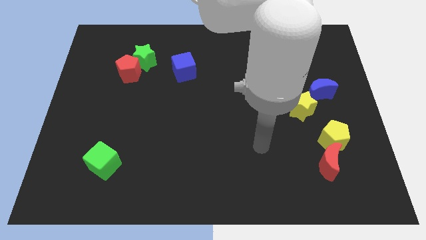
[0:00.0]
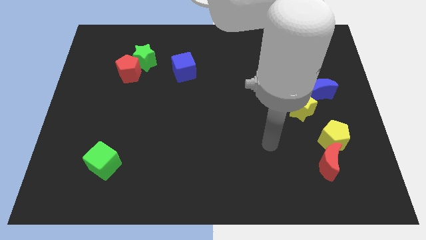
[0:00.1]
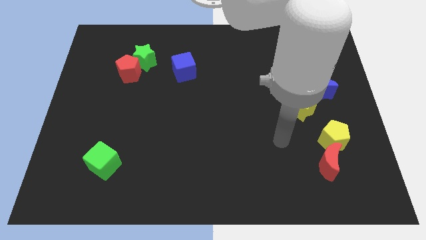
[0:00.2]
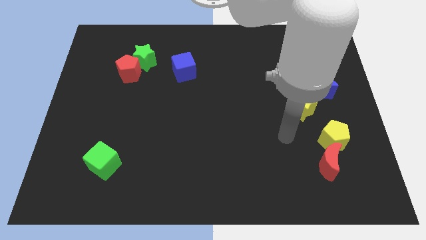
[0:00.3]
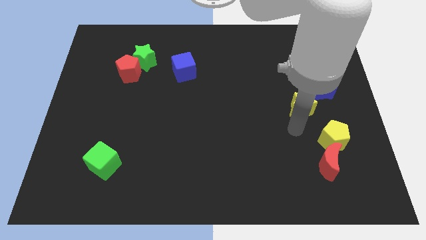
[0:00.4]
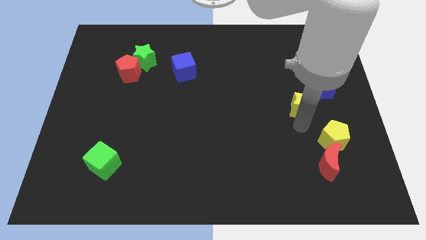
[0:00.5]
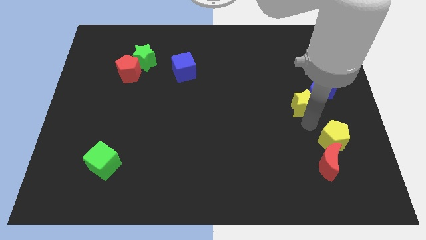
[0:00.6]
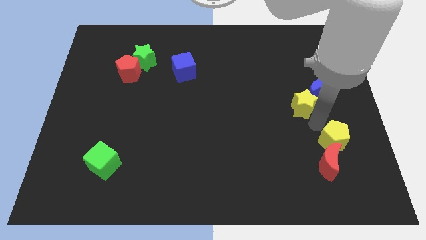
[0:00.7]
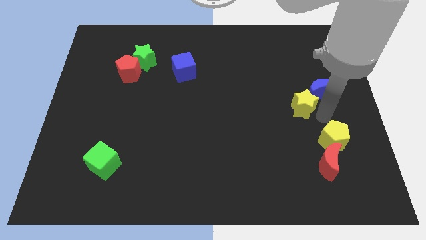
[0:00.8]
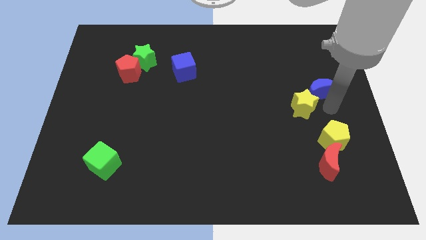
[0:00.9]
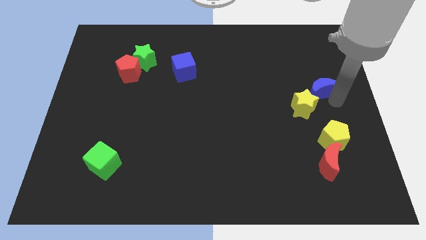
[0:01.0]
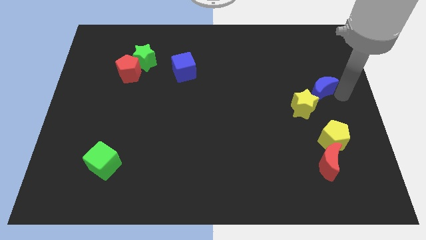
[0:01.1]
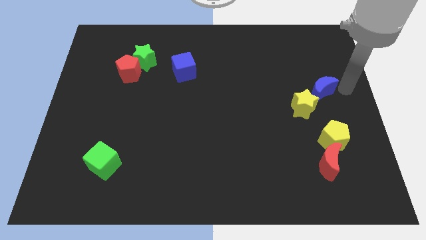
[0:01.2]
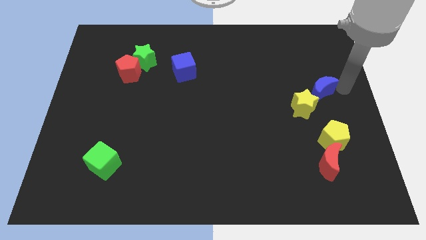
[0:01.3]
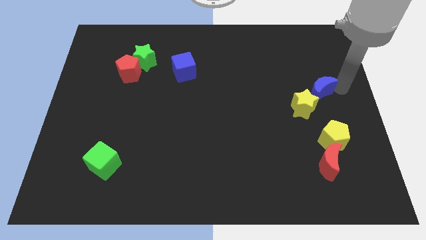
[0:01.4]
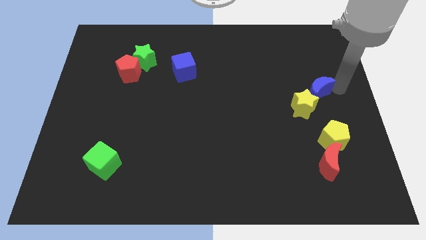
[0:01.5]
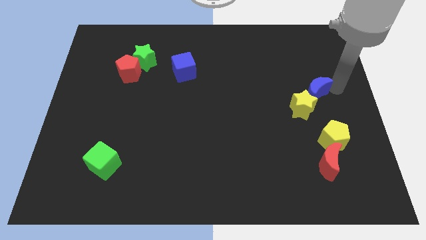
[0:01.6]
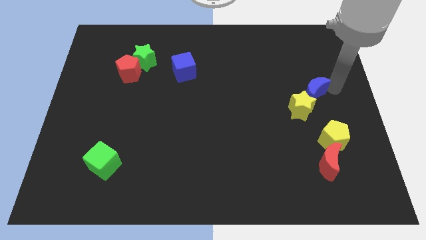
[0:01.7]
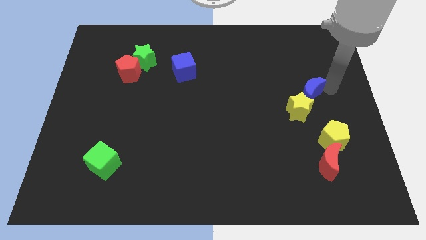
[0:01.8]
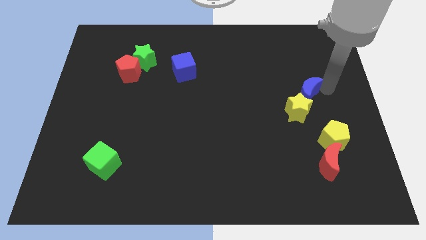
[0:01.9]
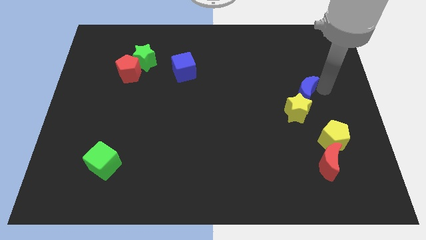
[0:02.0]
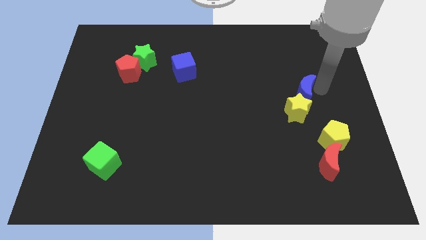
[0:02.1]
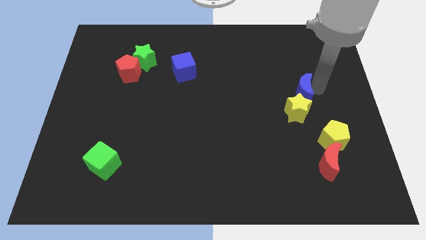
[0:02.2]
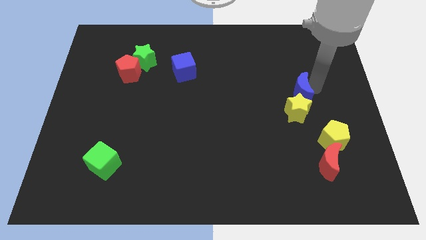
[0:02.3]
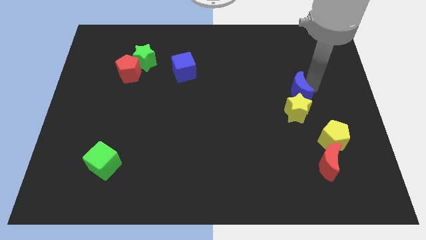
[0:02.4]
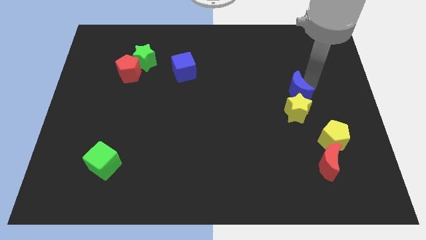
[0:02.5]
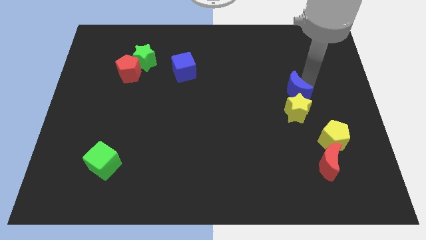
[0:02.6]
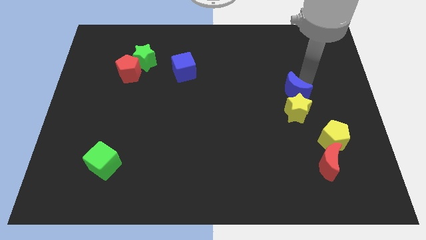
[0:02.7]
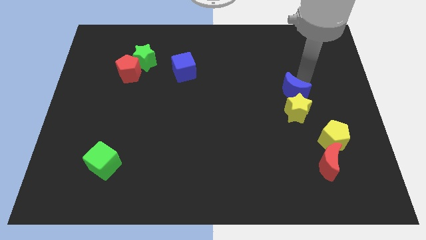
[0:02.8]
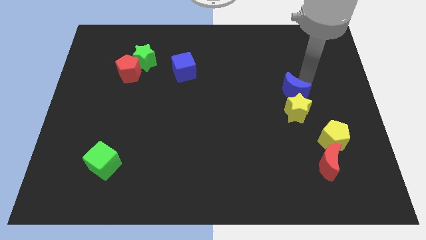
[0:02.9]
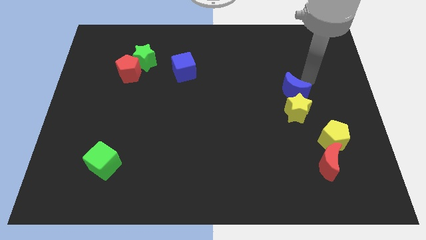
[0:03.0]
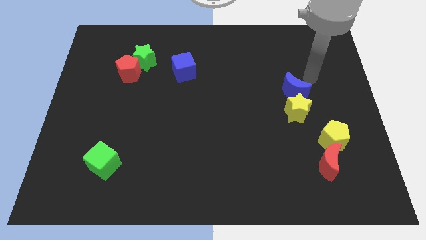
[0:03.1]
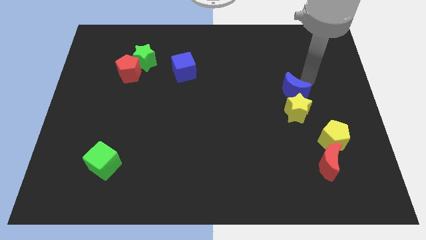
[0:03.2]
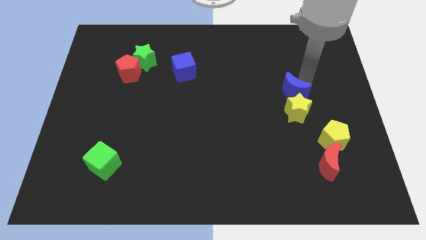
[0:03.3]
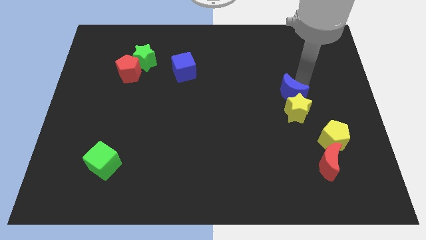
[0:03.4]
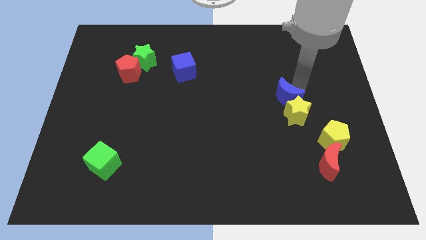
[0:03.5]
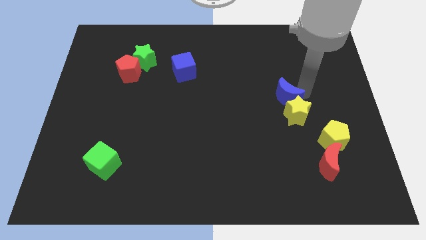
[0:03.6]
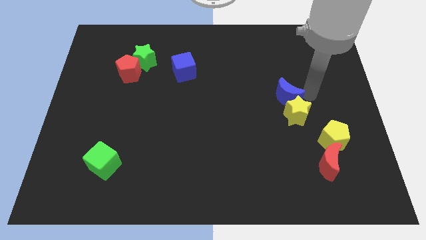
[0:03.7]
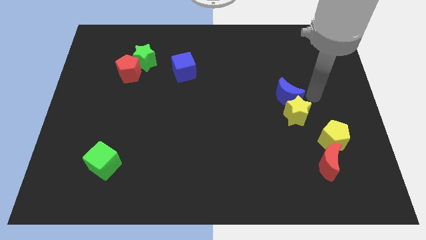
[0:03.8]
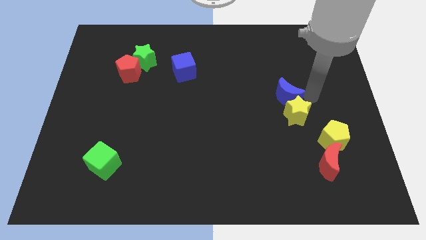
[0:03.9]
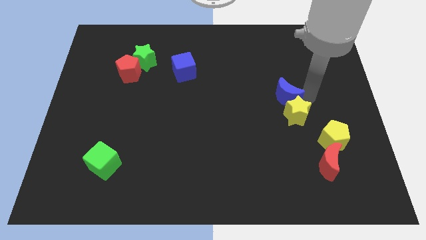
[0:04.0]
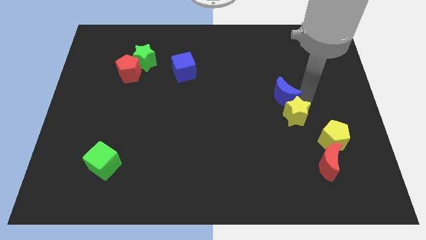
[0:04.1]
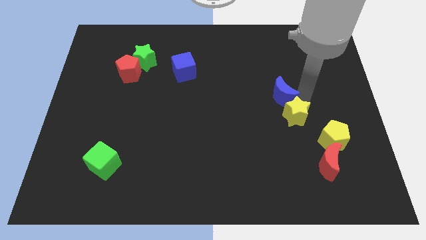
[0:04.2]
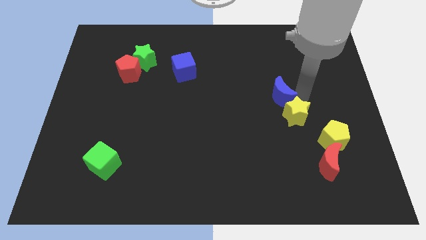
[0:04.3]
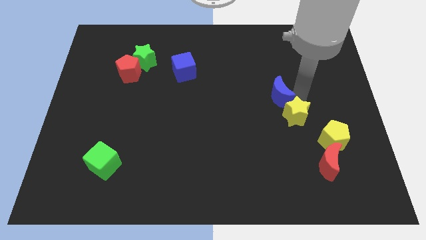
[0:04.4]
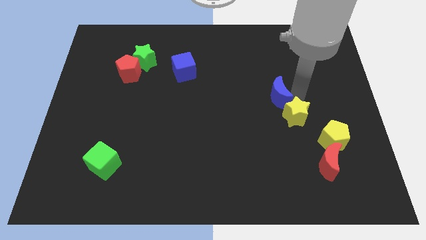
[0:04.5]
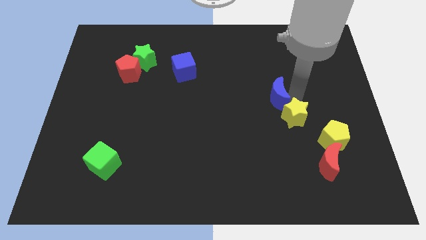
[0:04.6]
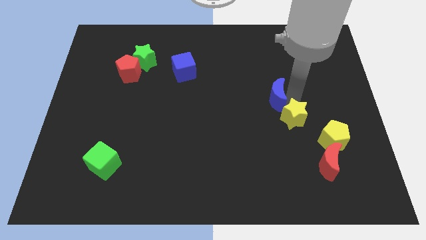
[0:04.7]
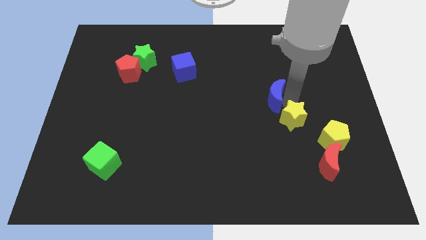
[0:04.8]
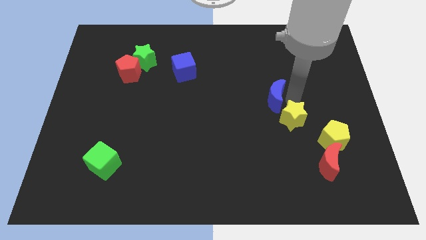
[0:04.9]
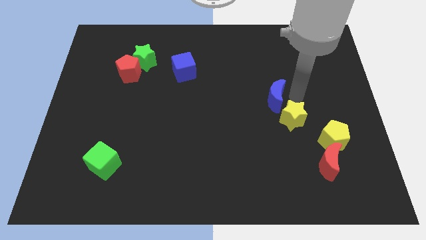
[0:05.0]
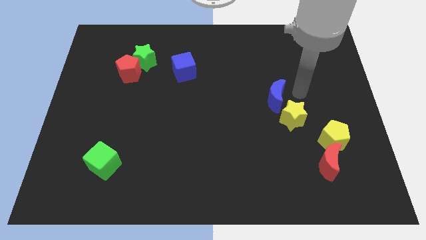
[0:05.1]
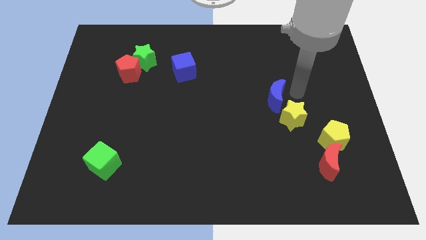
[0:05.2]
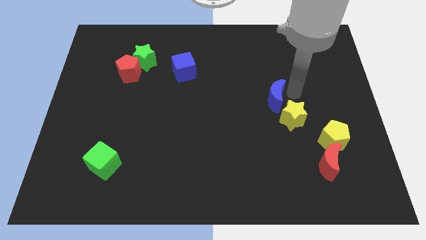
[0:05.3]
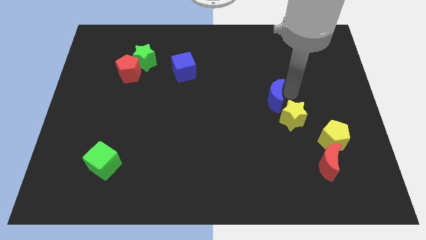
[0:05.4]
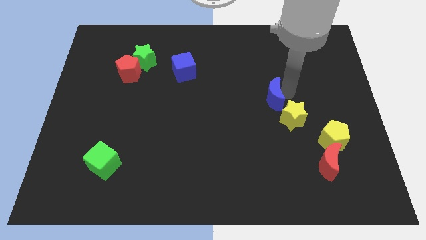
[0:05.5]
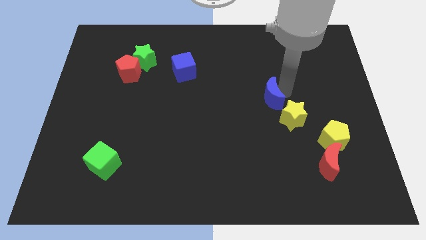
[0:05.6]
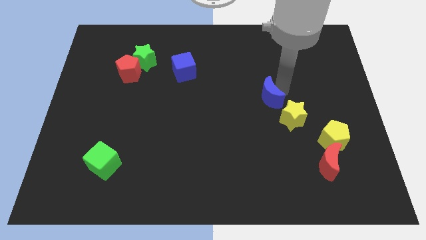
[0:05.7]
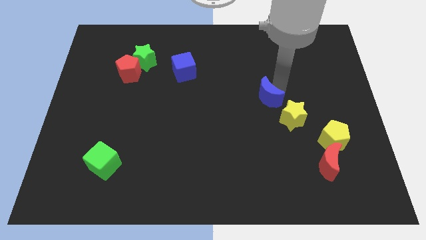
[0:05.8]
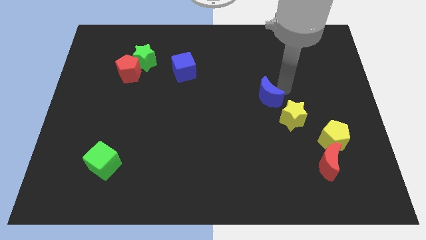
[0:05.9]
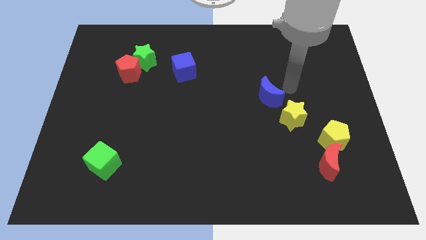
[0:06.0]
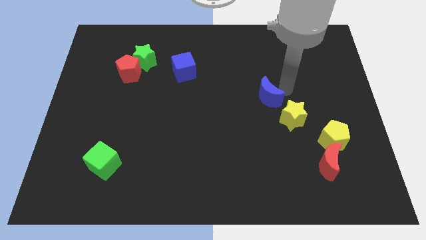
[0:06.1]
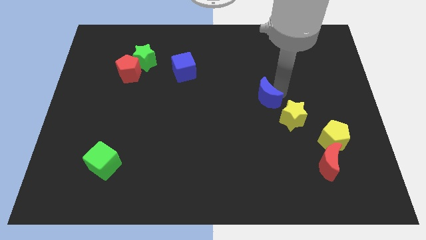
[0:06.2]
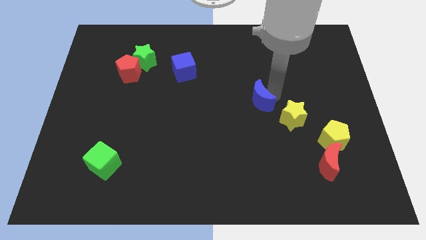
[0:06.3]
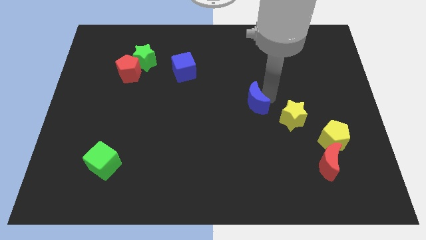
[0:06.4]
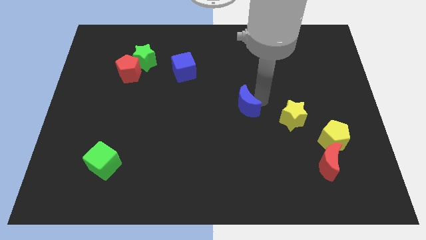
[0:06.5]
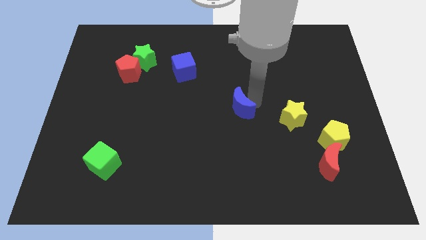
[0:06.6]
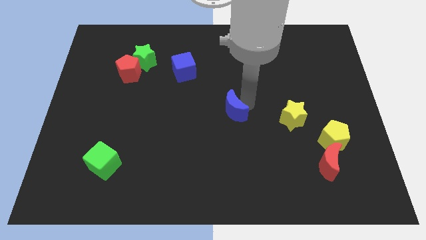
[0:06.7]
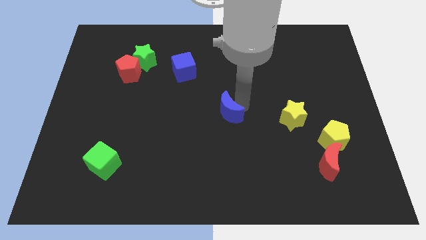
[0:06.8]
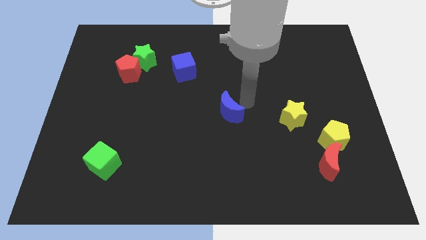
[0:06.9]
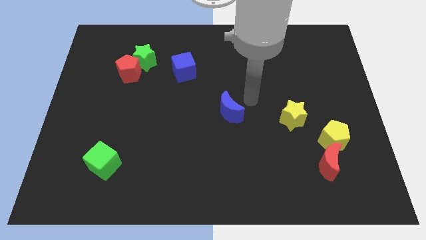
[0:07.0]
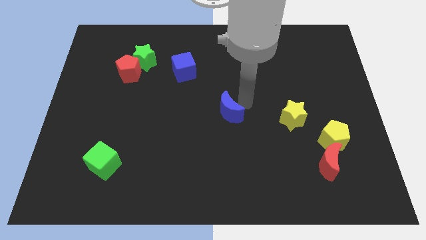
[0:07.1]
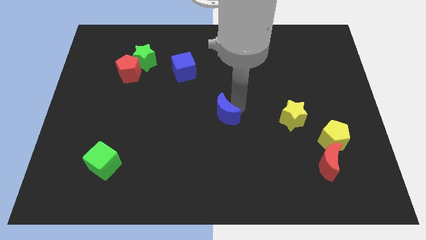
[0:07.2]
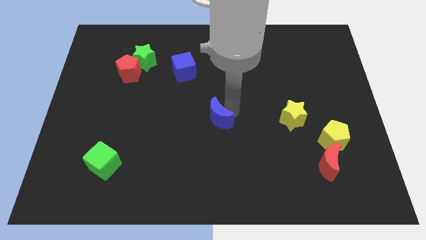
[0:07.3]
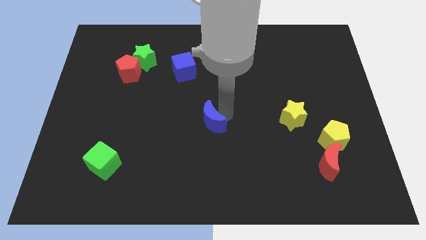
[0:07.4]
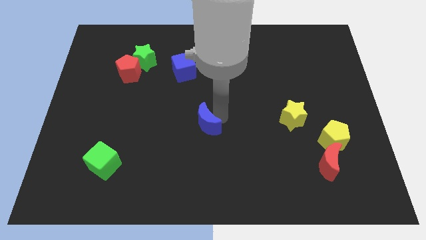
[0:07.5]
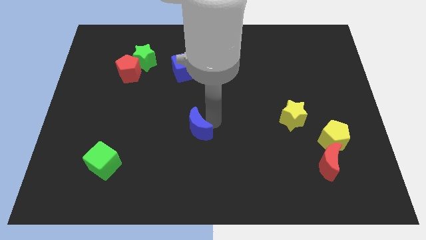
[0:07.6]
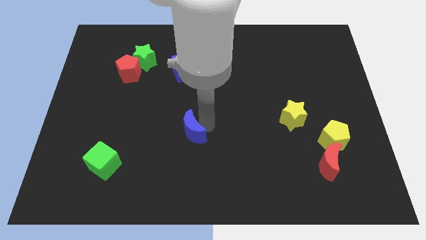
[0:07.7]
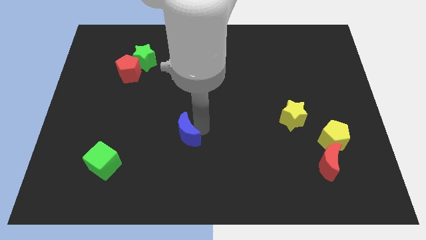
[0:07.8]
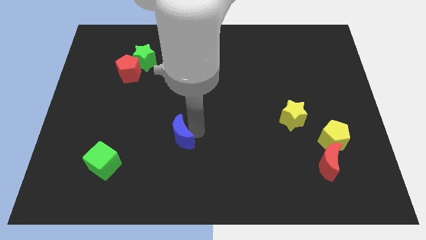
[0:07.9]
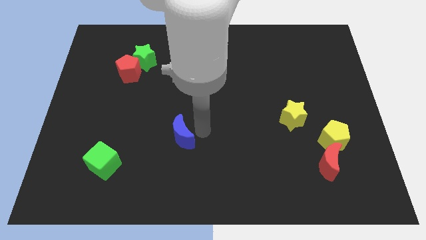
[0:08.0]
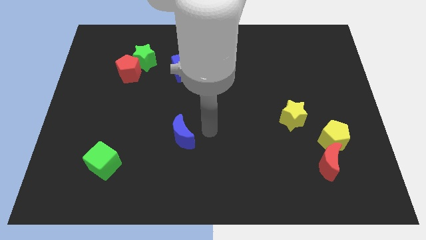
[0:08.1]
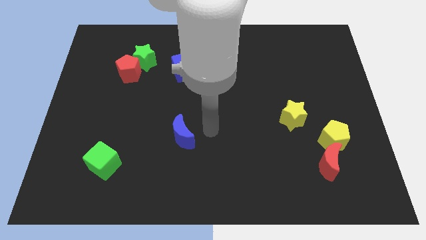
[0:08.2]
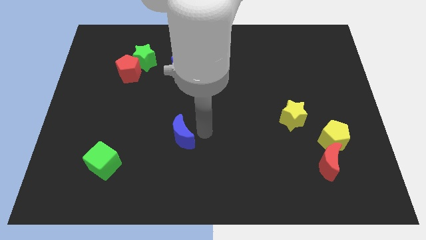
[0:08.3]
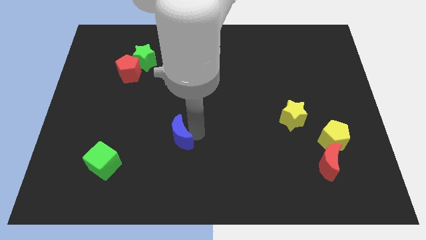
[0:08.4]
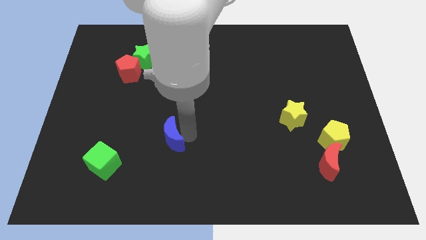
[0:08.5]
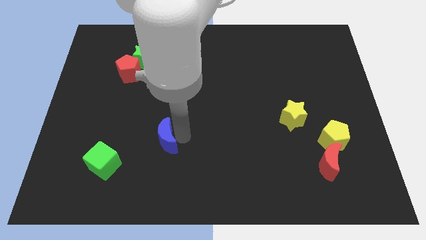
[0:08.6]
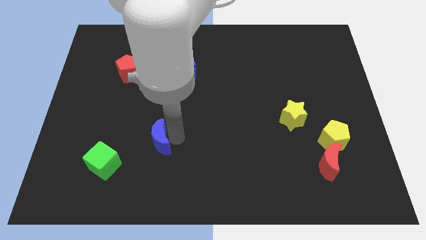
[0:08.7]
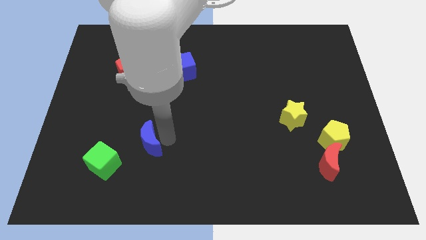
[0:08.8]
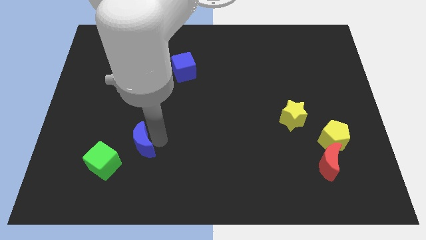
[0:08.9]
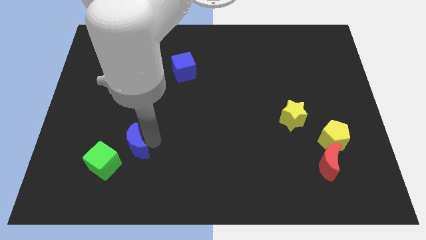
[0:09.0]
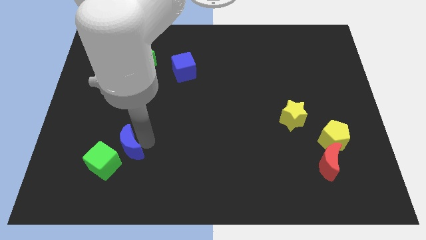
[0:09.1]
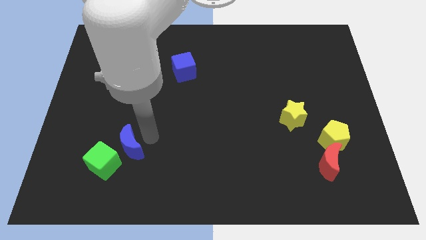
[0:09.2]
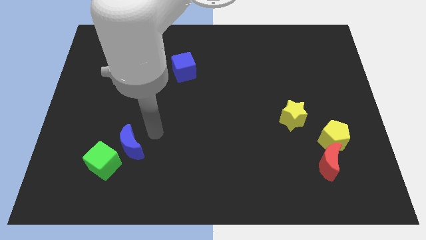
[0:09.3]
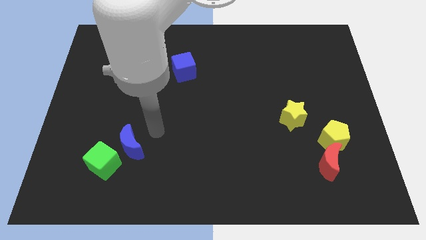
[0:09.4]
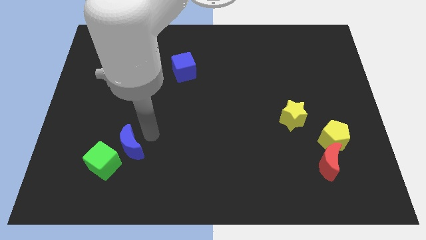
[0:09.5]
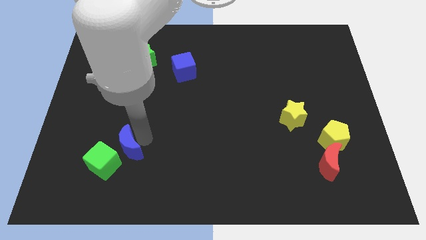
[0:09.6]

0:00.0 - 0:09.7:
put the blue moon next to the green cube
